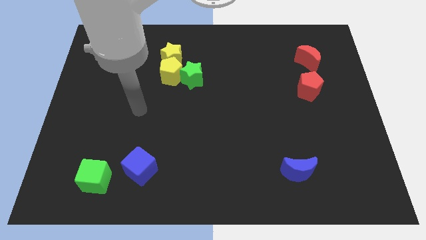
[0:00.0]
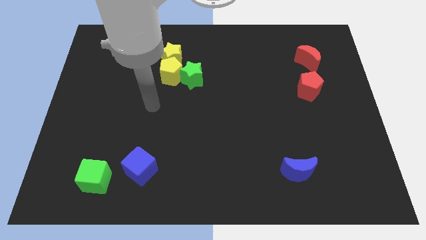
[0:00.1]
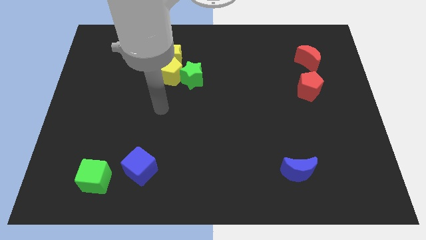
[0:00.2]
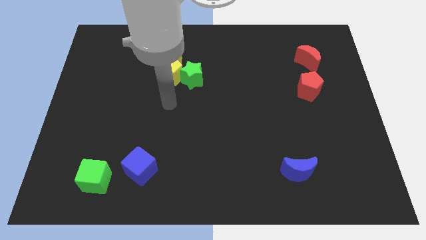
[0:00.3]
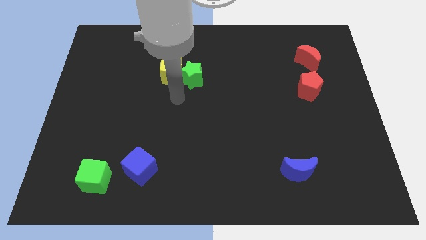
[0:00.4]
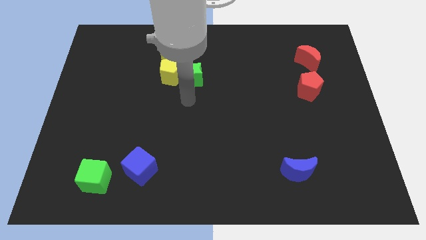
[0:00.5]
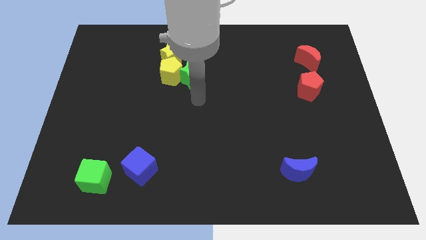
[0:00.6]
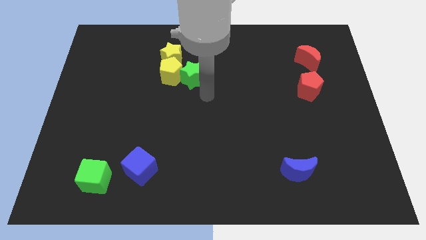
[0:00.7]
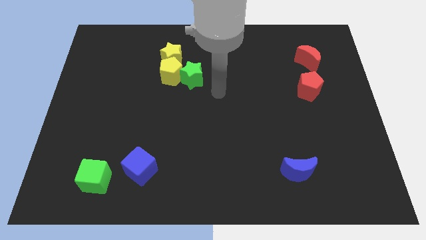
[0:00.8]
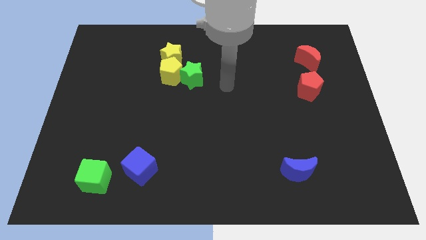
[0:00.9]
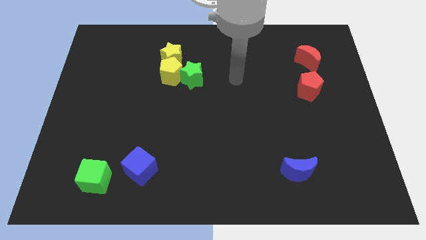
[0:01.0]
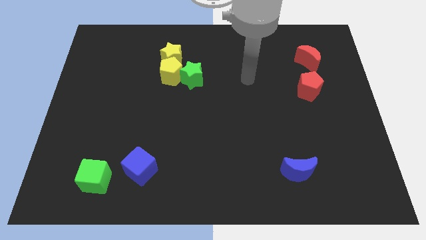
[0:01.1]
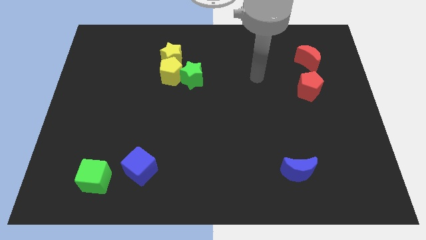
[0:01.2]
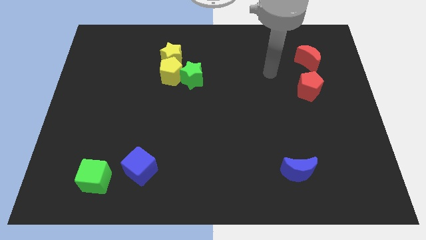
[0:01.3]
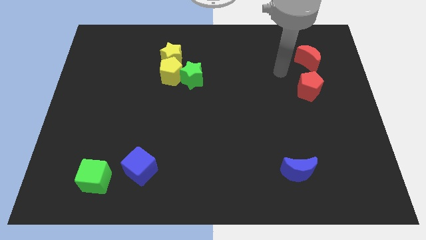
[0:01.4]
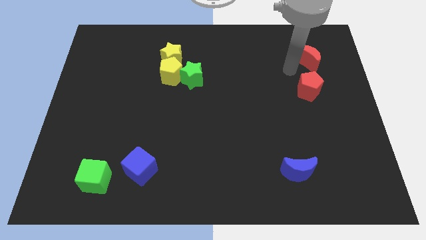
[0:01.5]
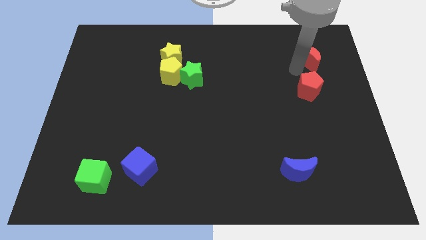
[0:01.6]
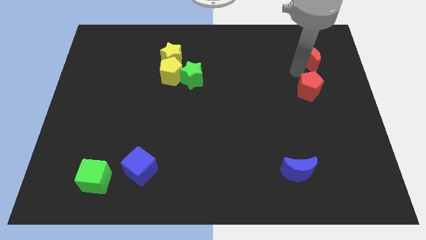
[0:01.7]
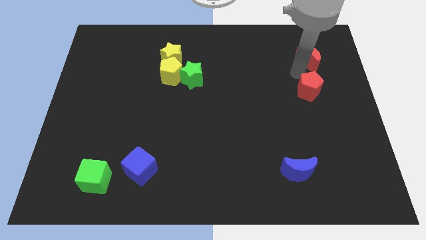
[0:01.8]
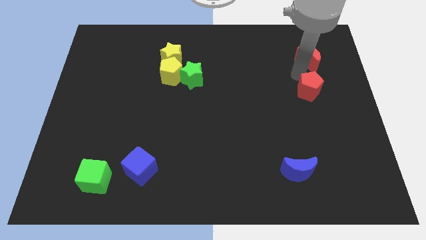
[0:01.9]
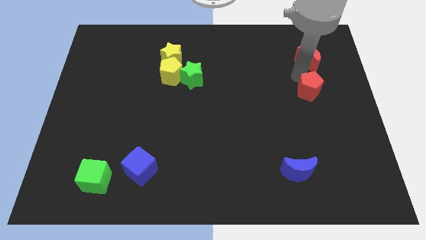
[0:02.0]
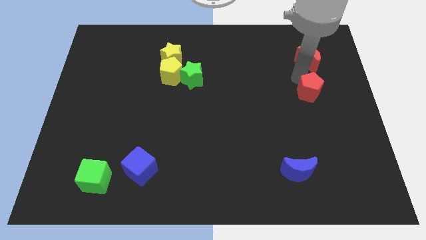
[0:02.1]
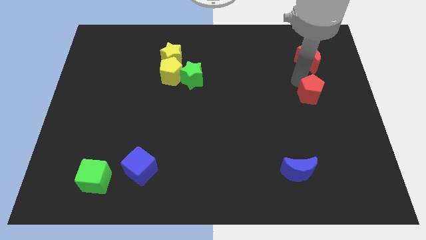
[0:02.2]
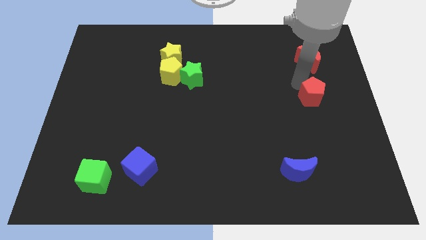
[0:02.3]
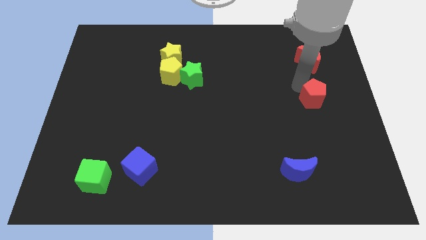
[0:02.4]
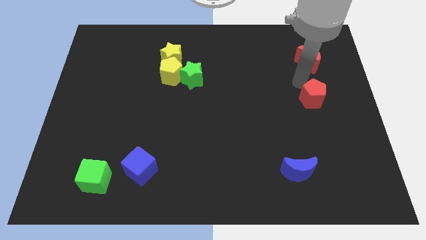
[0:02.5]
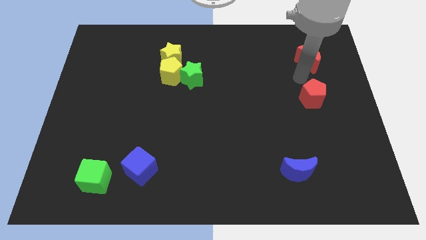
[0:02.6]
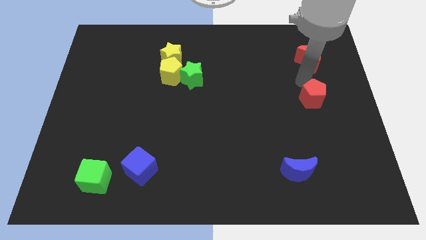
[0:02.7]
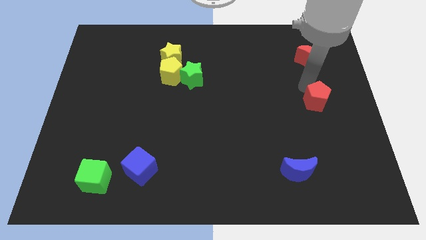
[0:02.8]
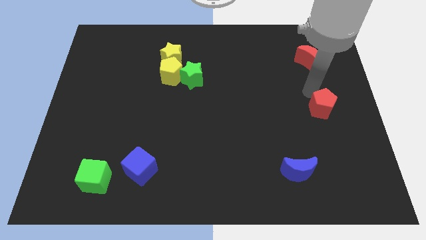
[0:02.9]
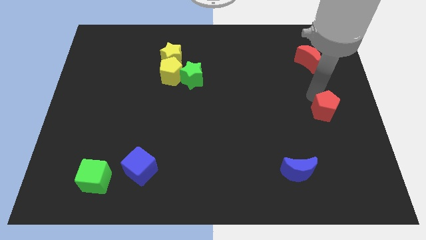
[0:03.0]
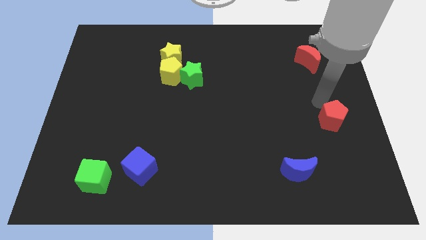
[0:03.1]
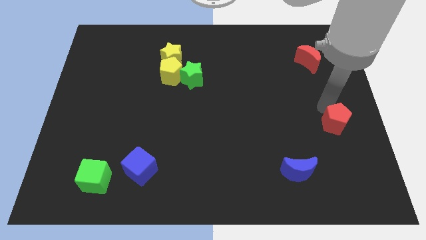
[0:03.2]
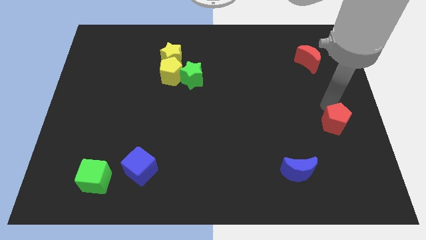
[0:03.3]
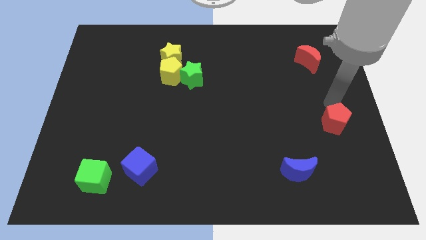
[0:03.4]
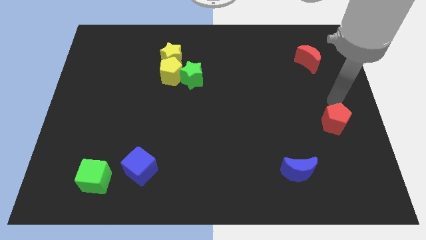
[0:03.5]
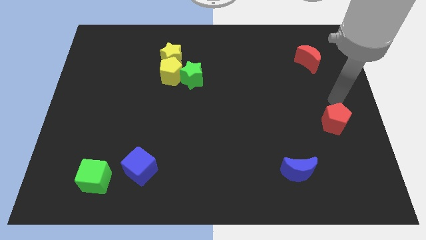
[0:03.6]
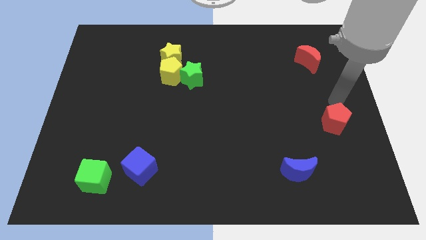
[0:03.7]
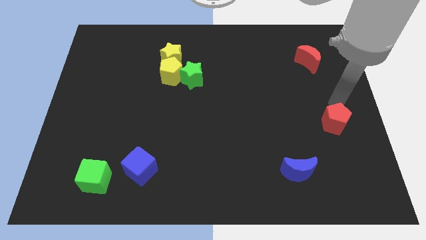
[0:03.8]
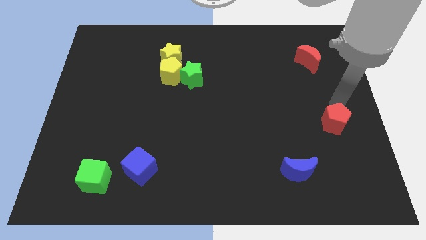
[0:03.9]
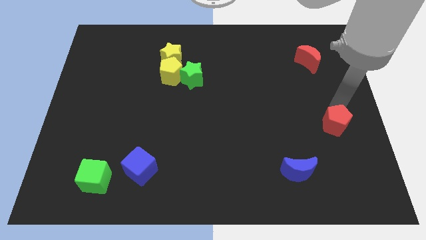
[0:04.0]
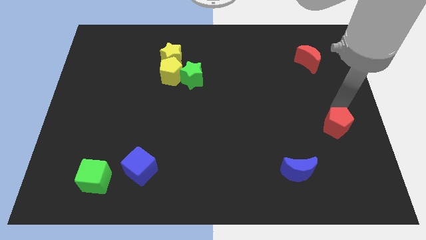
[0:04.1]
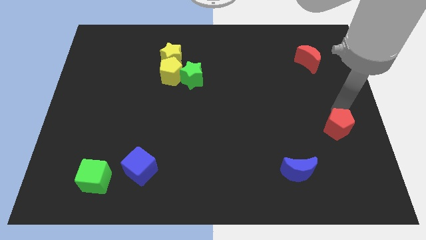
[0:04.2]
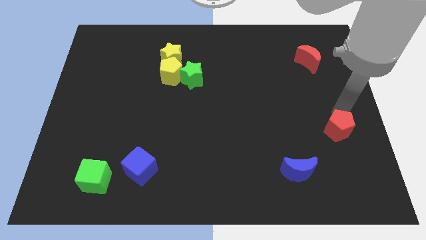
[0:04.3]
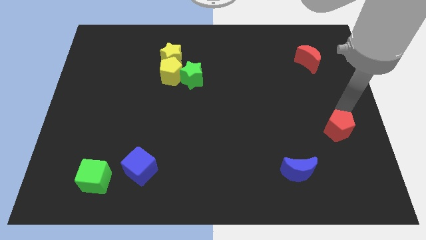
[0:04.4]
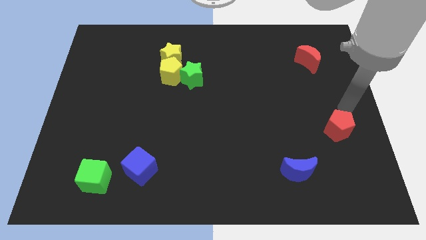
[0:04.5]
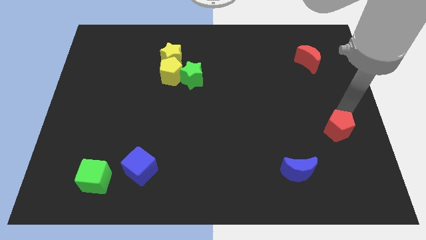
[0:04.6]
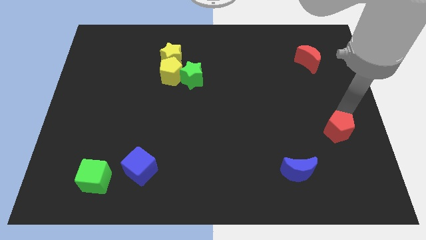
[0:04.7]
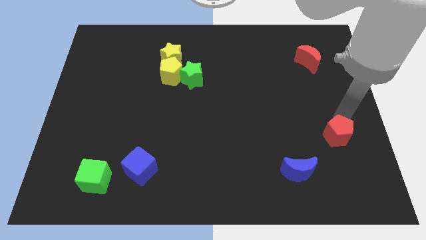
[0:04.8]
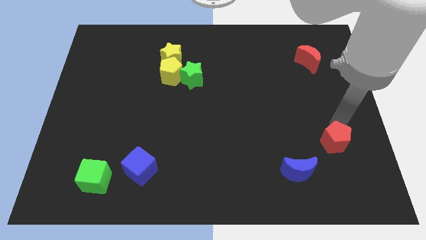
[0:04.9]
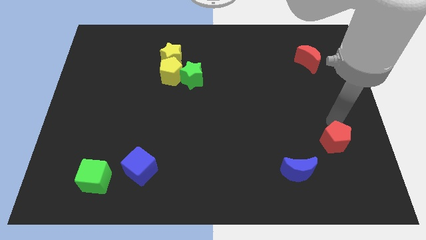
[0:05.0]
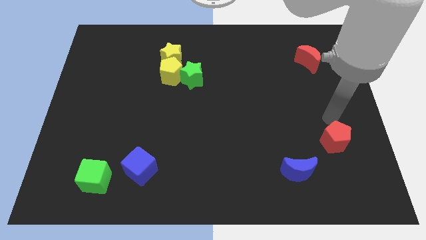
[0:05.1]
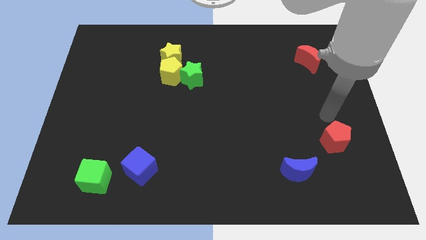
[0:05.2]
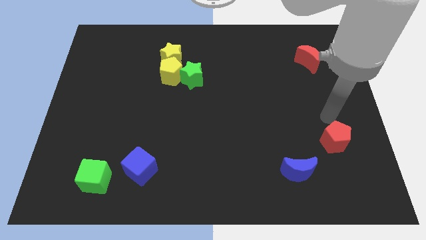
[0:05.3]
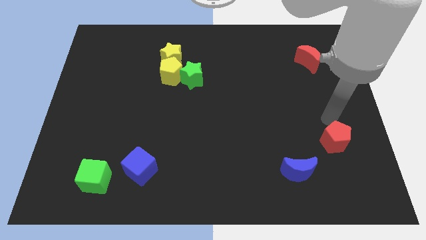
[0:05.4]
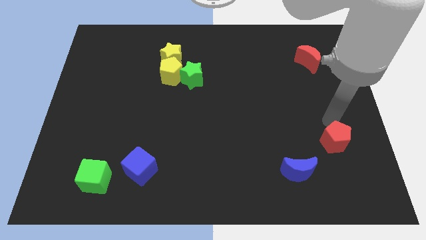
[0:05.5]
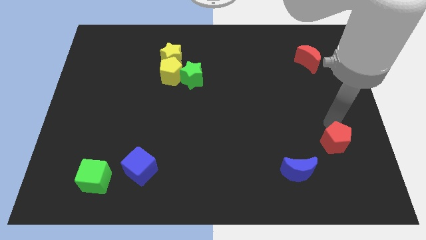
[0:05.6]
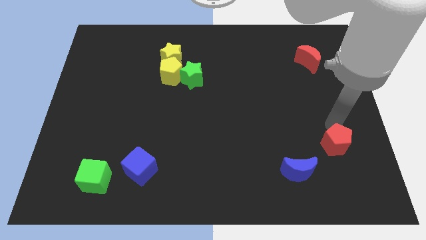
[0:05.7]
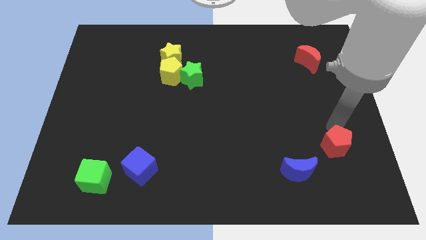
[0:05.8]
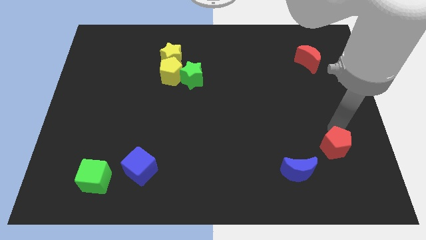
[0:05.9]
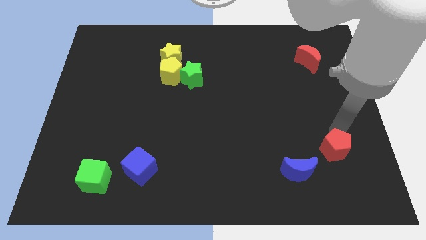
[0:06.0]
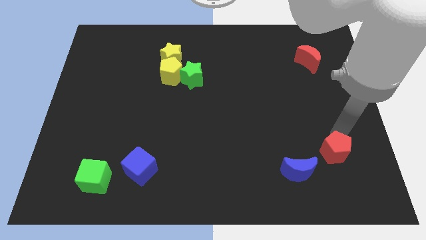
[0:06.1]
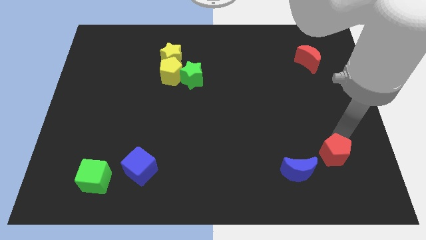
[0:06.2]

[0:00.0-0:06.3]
slide the red pentagon just right of the blue moon

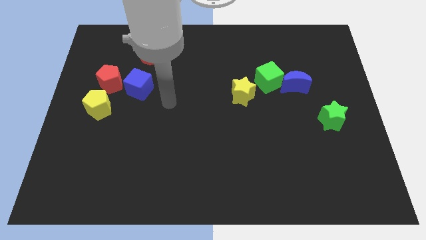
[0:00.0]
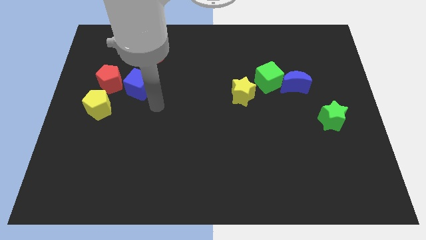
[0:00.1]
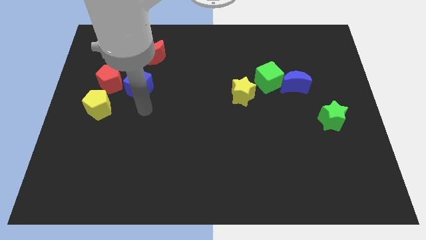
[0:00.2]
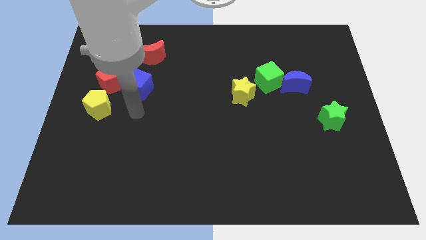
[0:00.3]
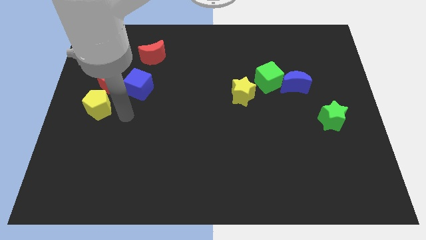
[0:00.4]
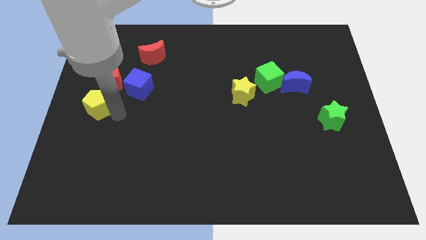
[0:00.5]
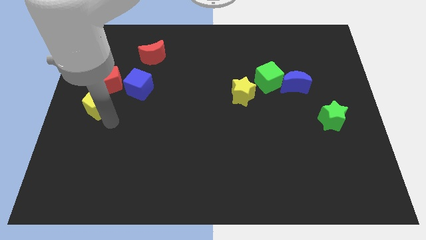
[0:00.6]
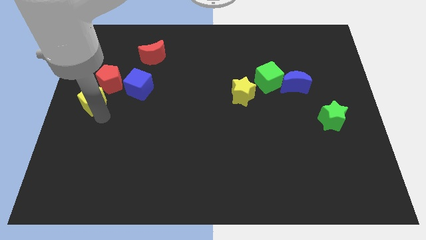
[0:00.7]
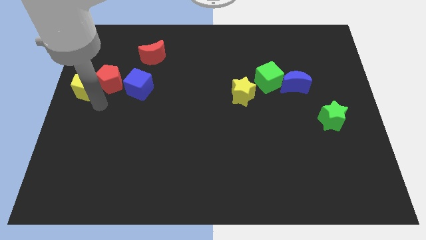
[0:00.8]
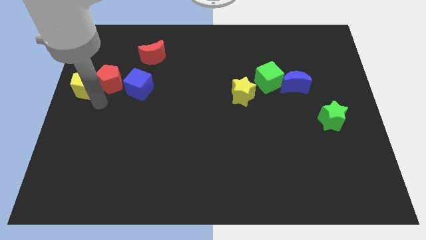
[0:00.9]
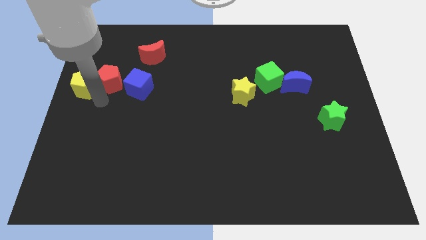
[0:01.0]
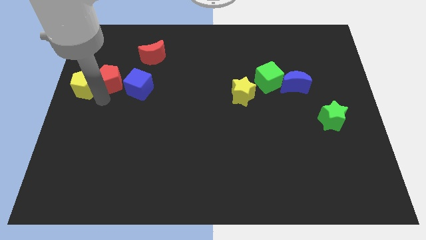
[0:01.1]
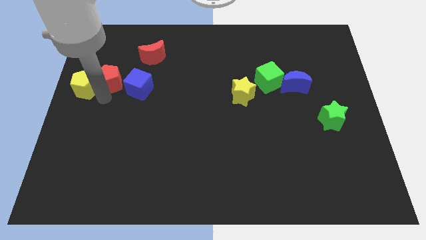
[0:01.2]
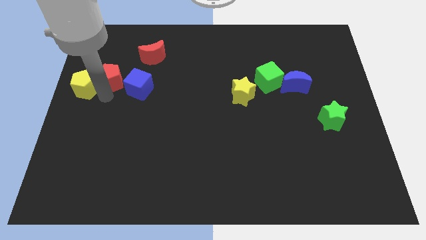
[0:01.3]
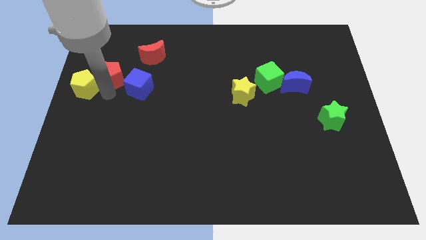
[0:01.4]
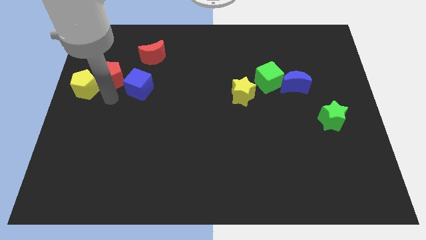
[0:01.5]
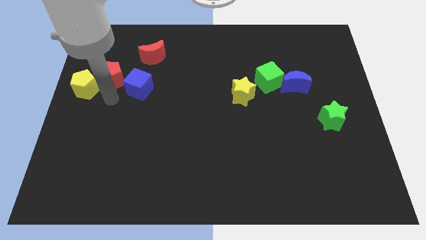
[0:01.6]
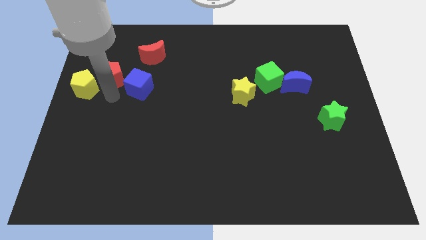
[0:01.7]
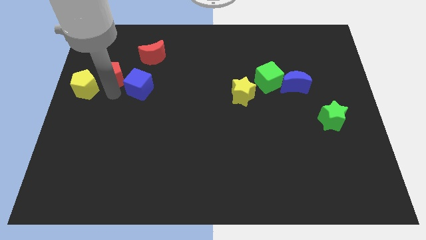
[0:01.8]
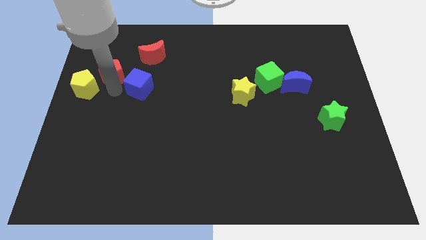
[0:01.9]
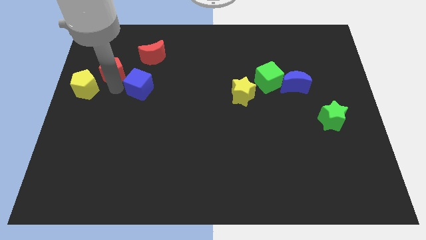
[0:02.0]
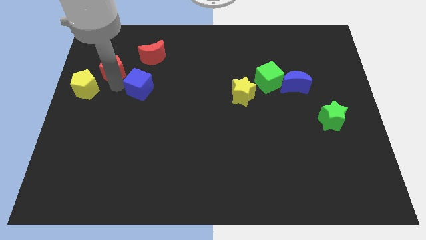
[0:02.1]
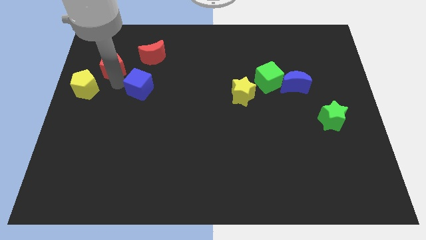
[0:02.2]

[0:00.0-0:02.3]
move the red pentagon to the left side of the red moon
